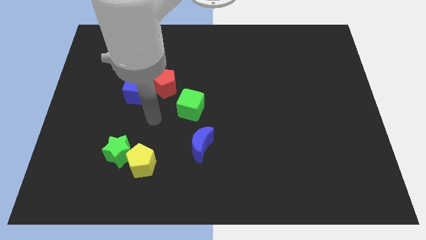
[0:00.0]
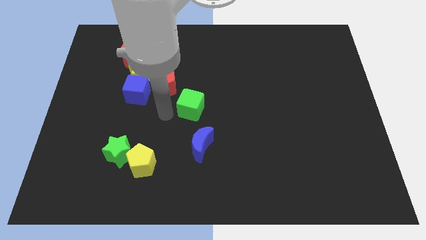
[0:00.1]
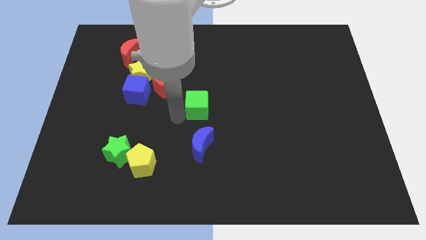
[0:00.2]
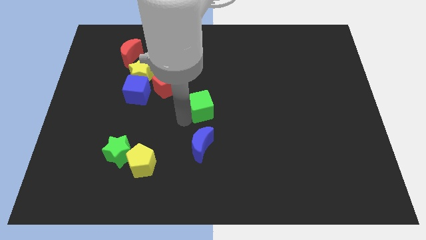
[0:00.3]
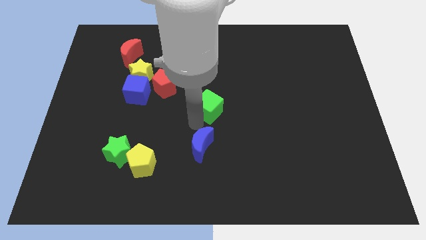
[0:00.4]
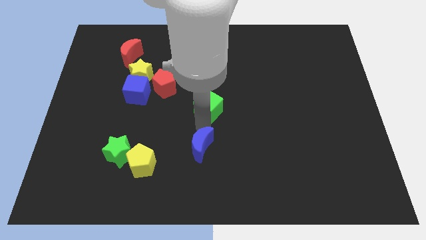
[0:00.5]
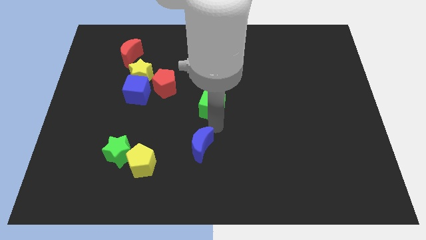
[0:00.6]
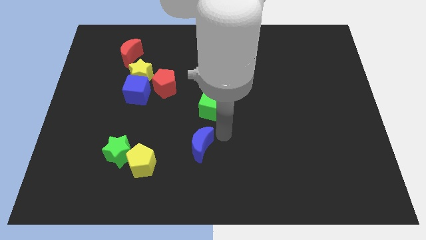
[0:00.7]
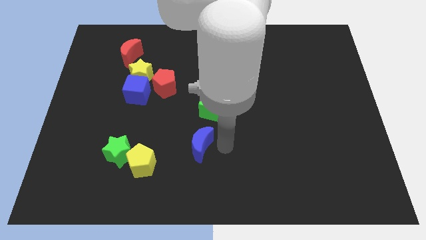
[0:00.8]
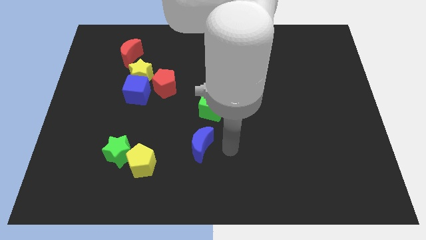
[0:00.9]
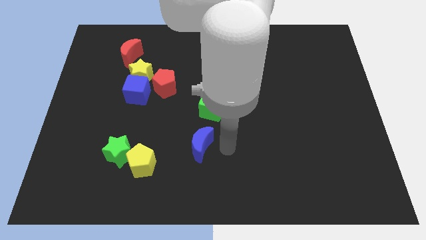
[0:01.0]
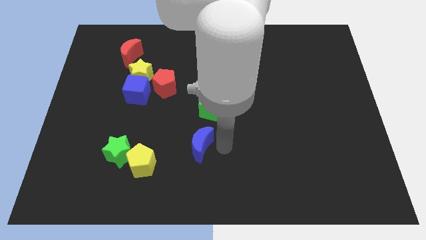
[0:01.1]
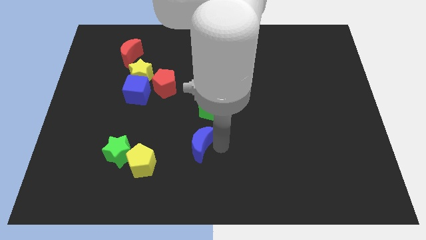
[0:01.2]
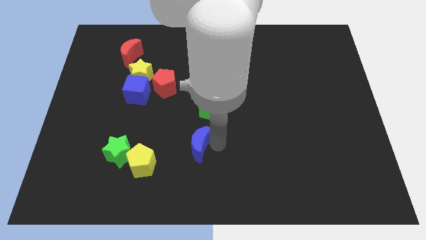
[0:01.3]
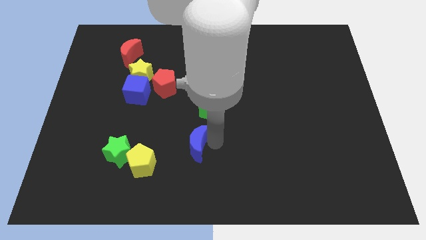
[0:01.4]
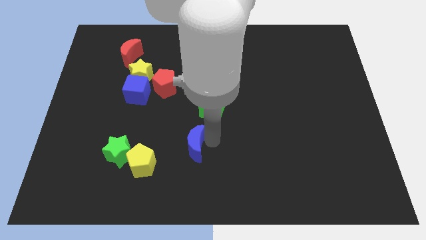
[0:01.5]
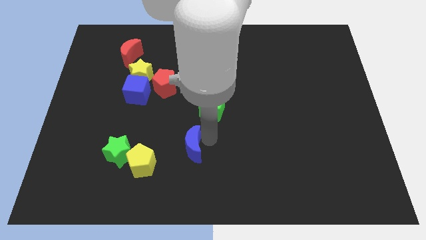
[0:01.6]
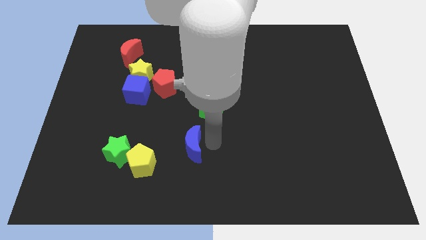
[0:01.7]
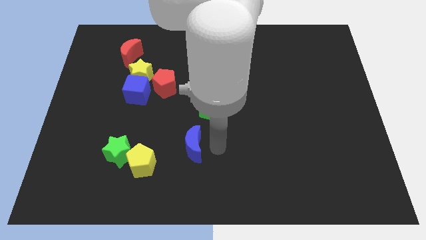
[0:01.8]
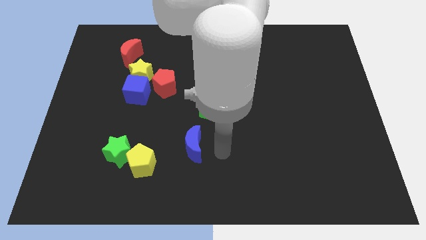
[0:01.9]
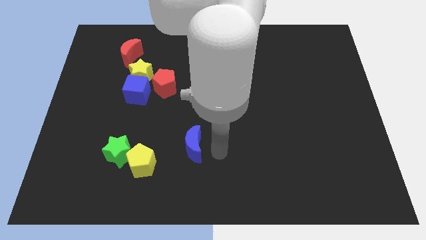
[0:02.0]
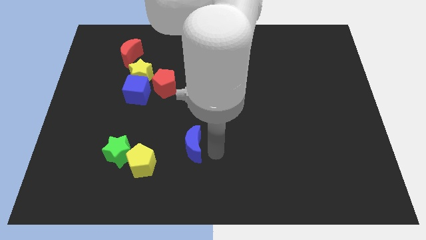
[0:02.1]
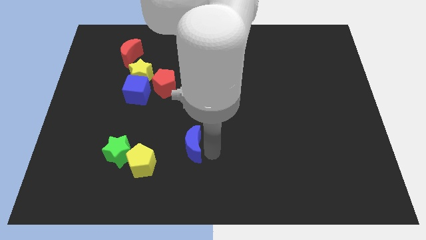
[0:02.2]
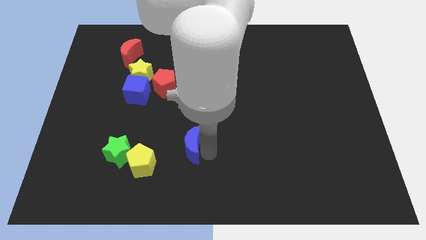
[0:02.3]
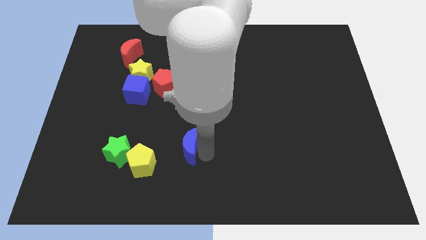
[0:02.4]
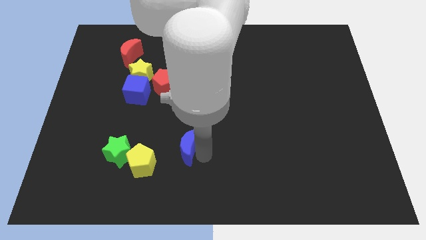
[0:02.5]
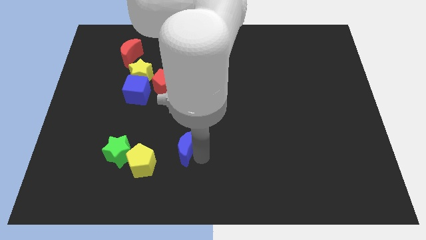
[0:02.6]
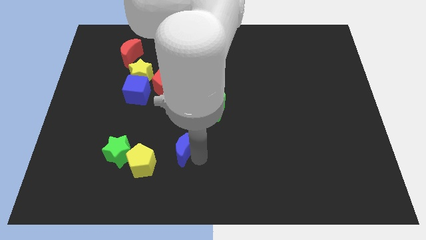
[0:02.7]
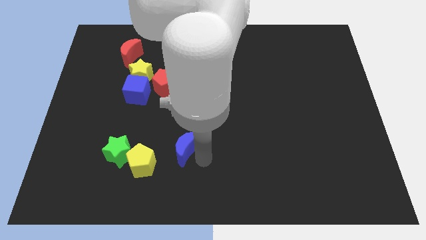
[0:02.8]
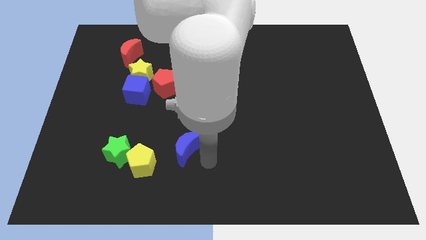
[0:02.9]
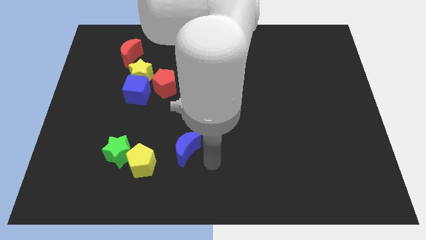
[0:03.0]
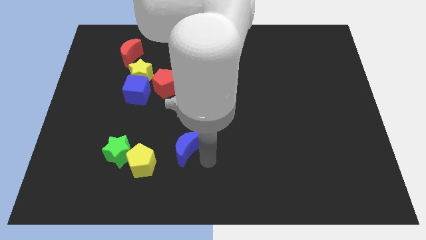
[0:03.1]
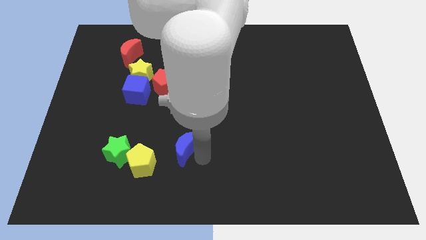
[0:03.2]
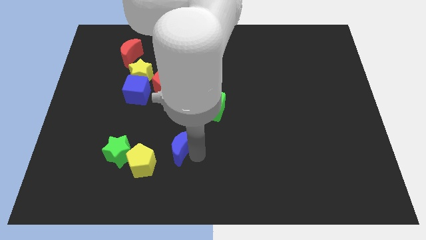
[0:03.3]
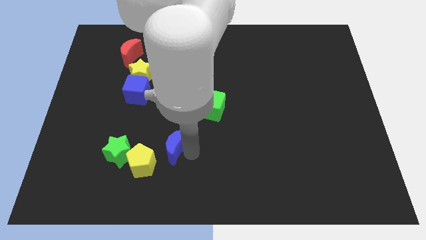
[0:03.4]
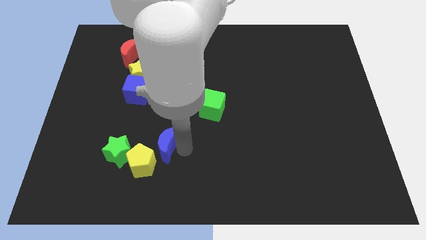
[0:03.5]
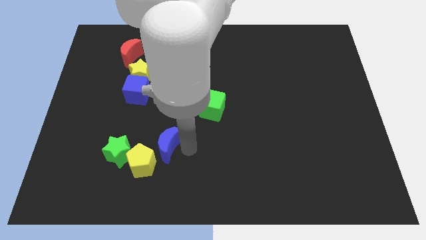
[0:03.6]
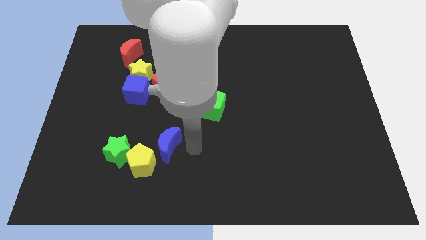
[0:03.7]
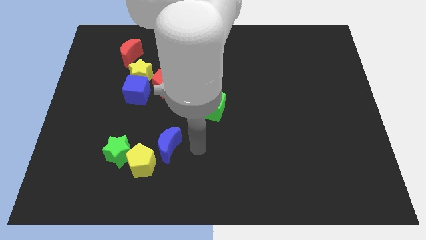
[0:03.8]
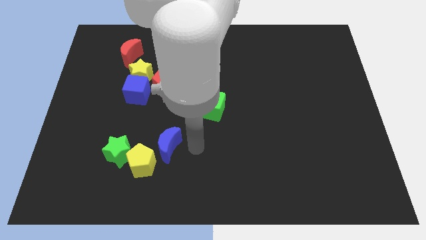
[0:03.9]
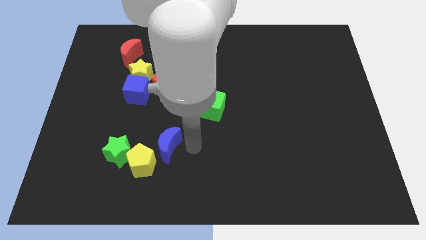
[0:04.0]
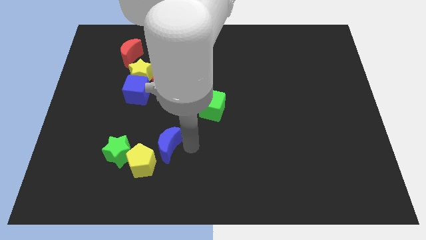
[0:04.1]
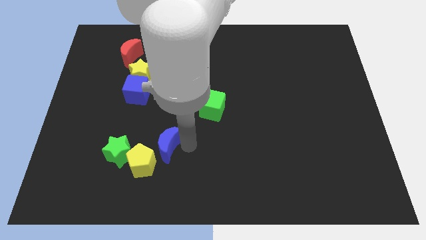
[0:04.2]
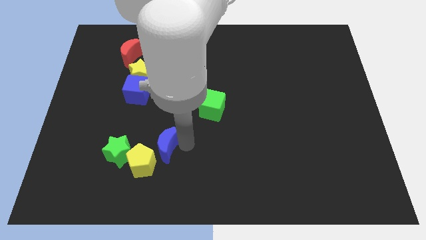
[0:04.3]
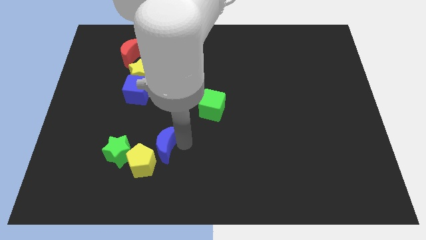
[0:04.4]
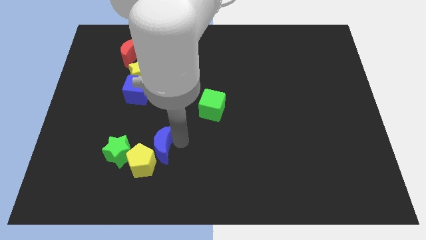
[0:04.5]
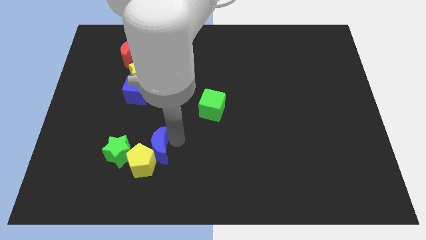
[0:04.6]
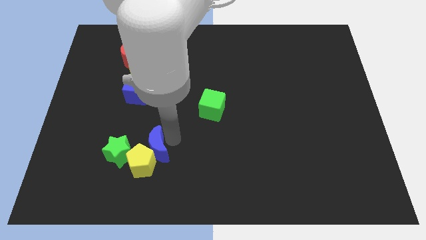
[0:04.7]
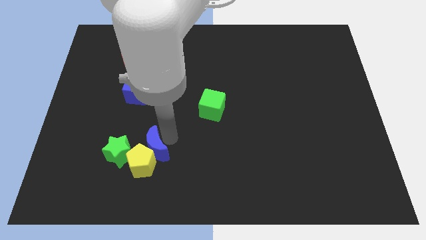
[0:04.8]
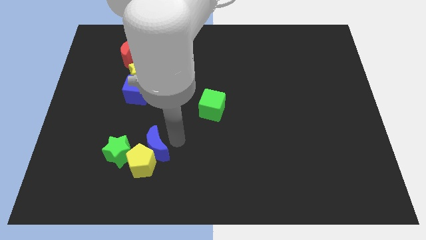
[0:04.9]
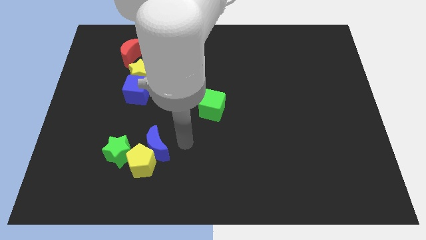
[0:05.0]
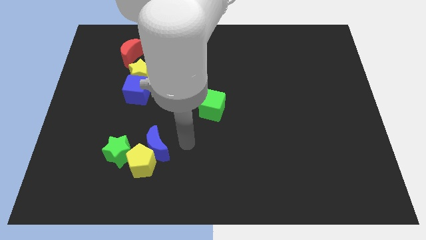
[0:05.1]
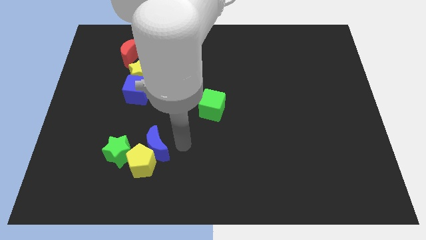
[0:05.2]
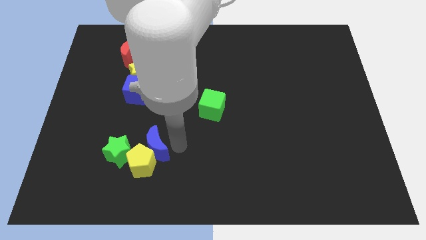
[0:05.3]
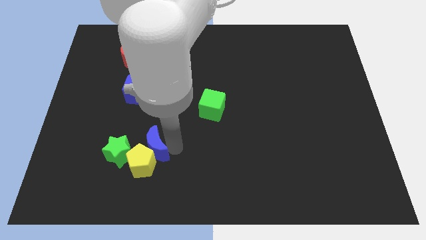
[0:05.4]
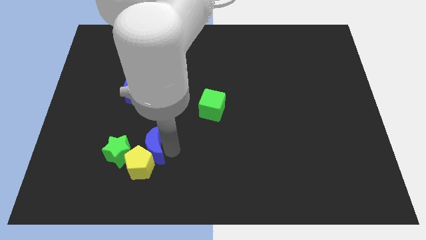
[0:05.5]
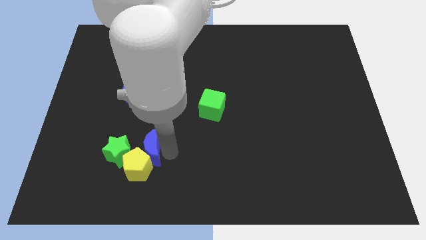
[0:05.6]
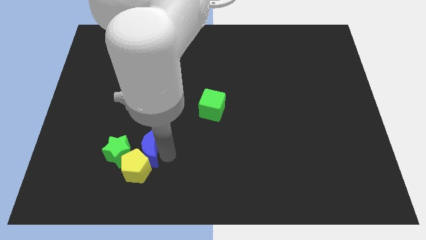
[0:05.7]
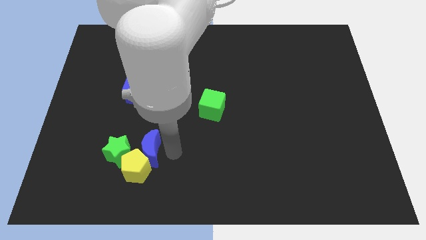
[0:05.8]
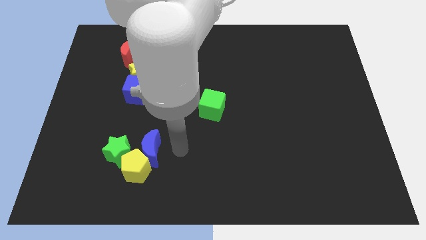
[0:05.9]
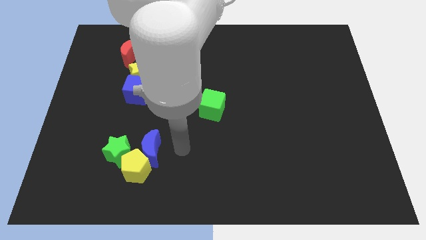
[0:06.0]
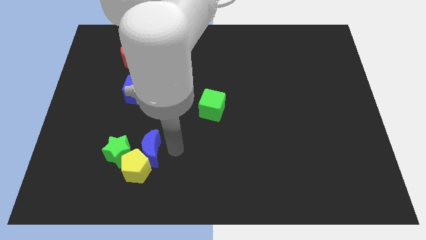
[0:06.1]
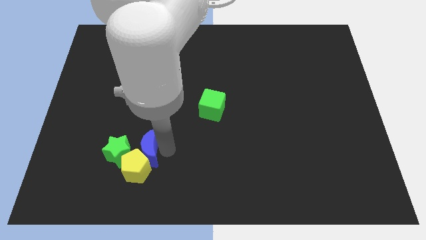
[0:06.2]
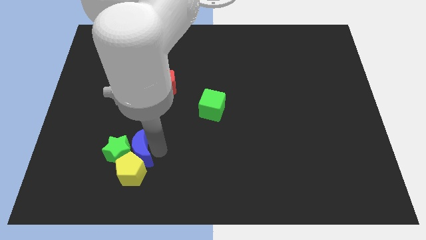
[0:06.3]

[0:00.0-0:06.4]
push the blue moon close to the green star

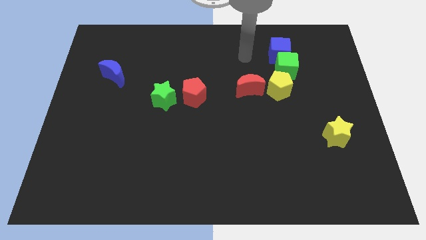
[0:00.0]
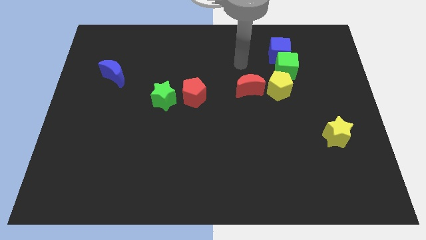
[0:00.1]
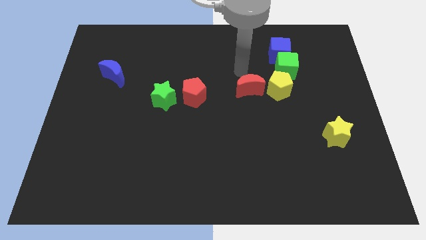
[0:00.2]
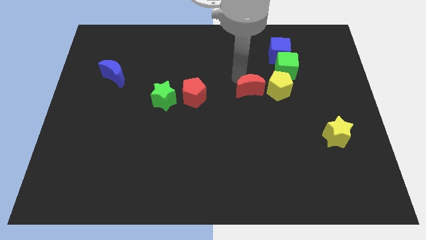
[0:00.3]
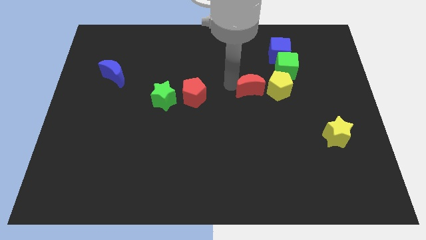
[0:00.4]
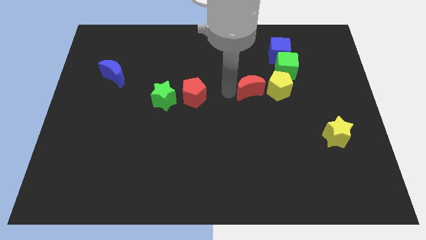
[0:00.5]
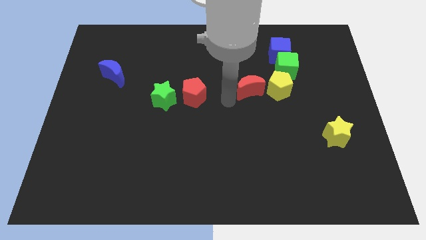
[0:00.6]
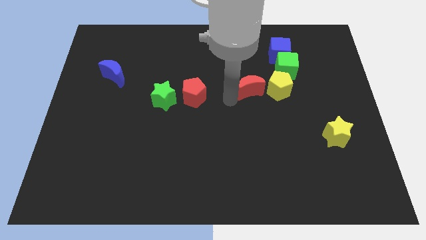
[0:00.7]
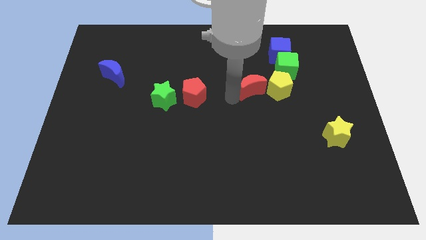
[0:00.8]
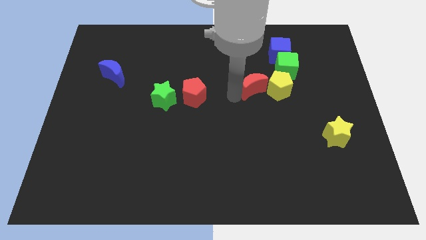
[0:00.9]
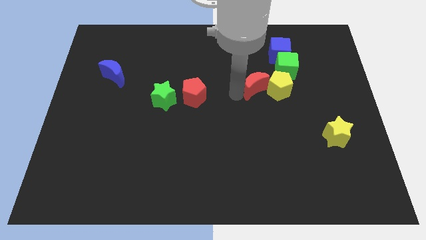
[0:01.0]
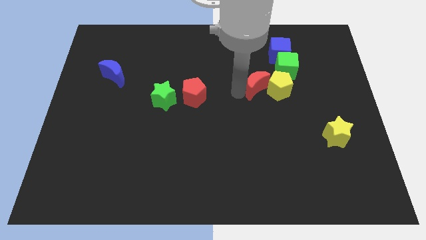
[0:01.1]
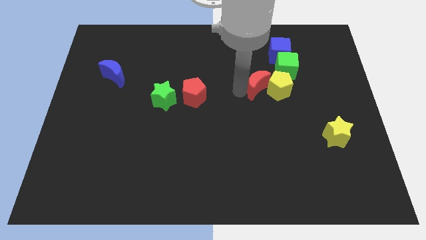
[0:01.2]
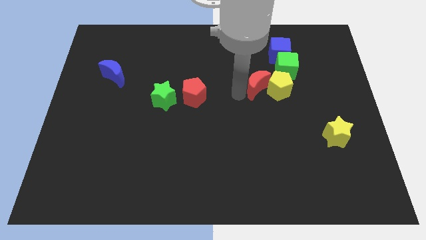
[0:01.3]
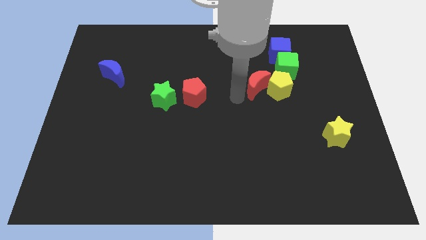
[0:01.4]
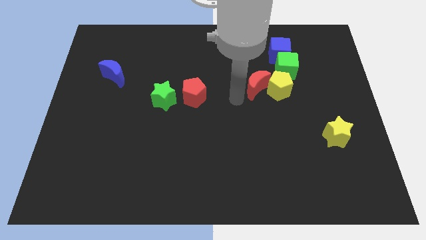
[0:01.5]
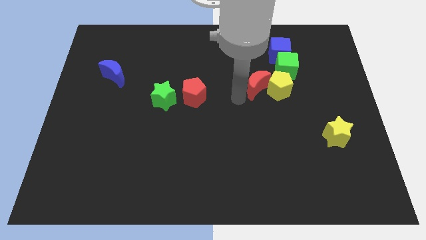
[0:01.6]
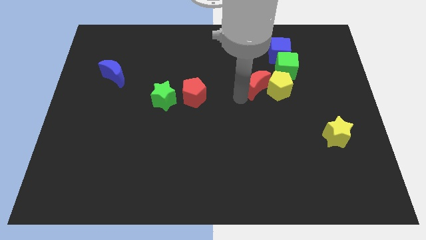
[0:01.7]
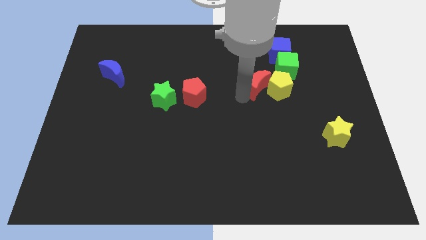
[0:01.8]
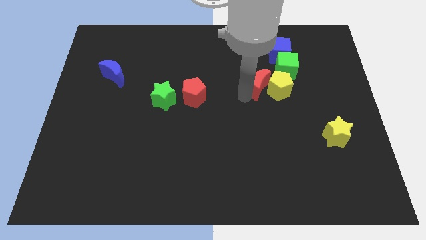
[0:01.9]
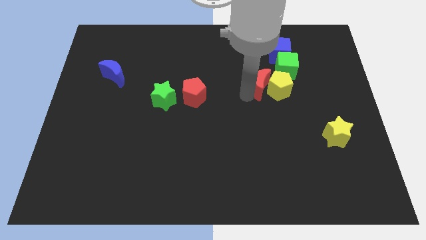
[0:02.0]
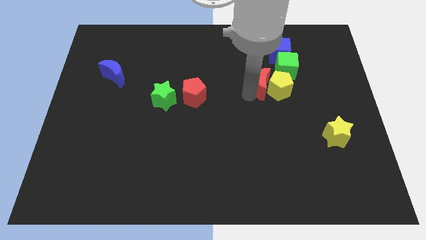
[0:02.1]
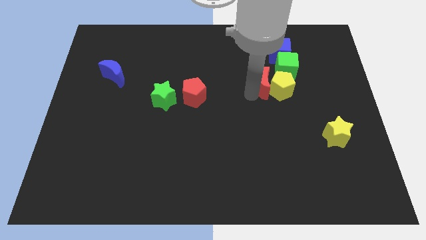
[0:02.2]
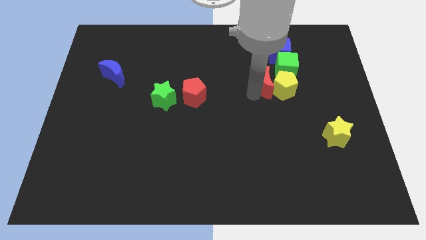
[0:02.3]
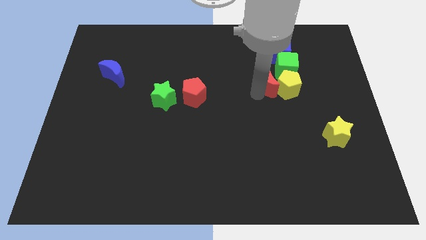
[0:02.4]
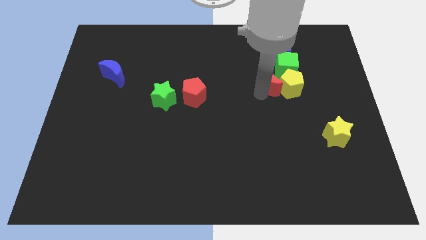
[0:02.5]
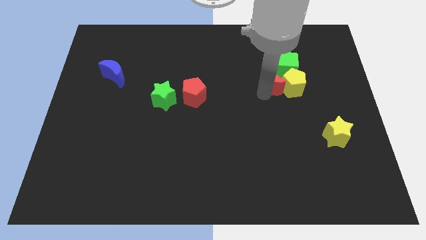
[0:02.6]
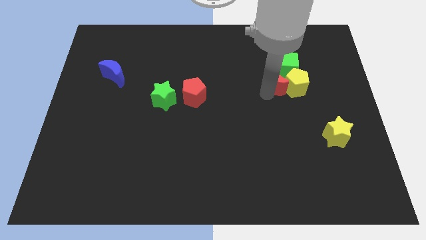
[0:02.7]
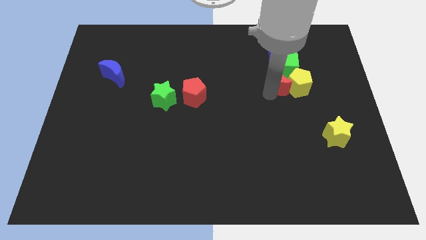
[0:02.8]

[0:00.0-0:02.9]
put the red moon to the green cube
